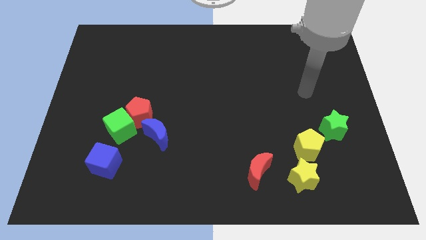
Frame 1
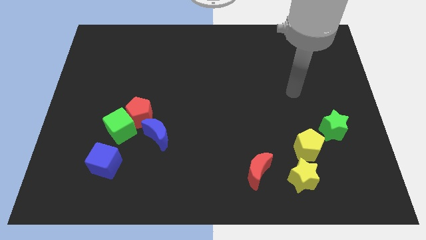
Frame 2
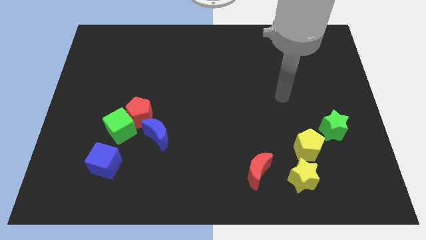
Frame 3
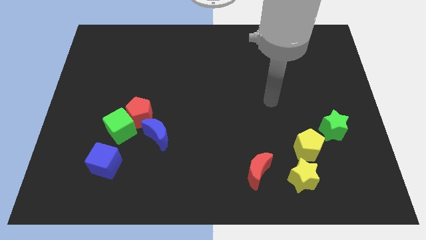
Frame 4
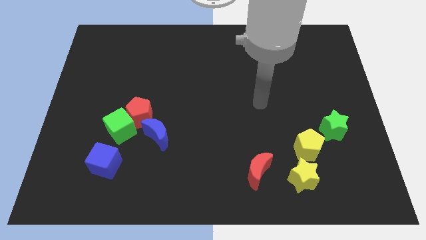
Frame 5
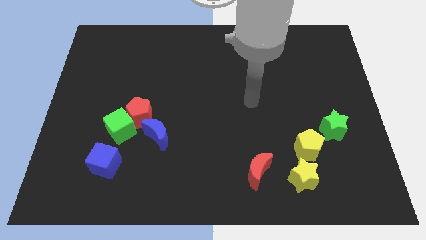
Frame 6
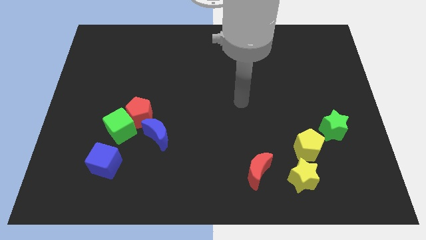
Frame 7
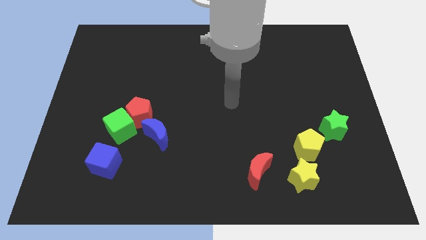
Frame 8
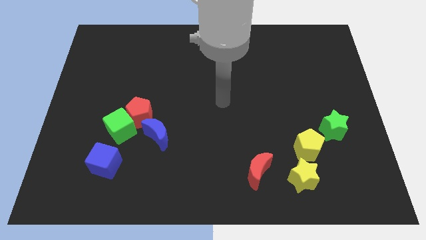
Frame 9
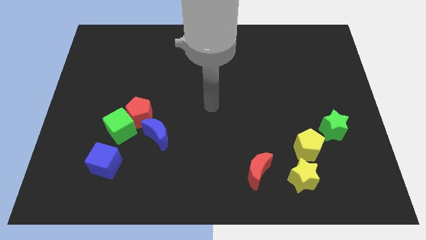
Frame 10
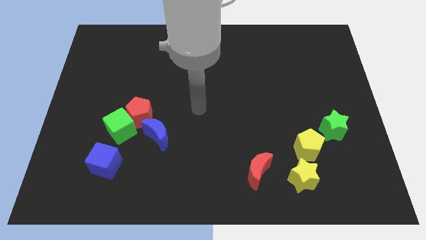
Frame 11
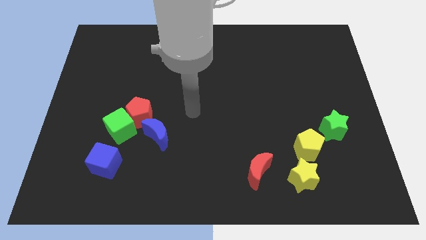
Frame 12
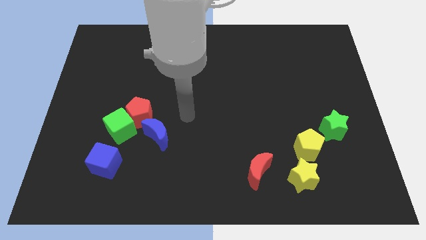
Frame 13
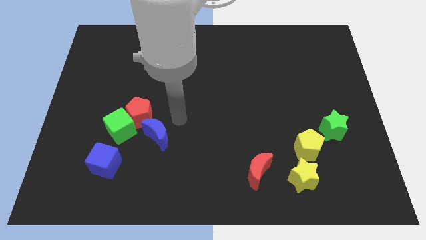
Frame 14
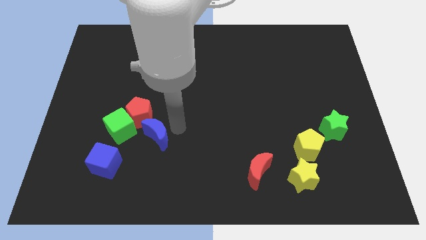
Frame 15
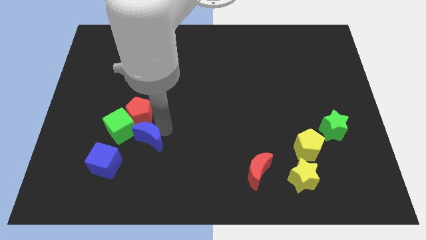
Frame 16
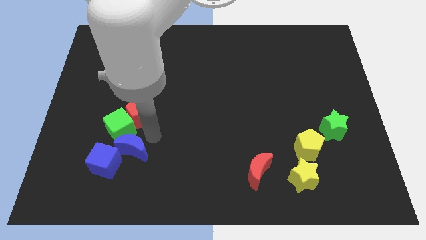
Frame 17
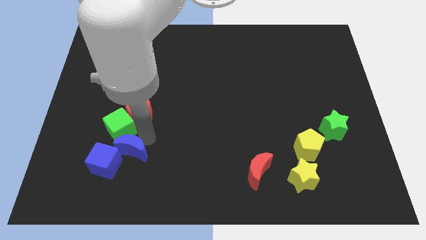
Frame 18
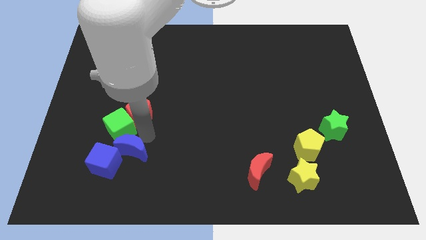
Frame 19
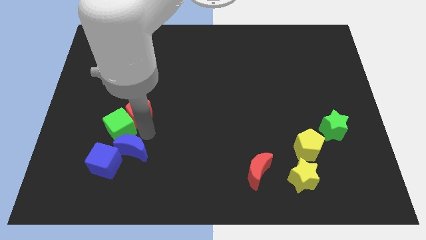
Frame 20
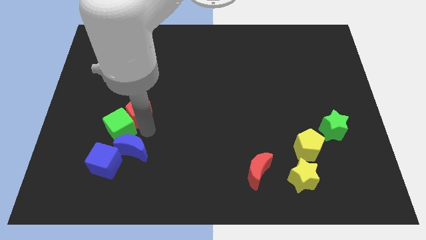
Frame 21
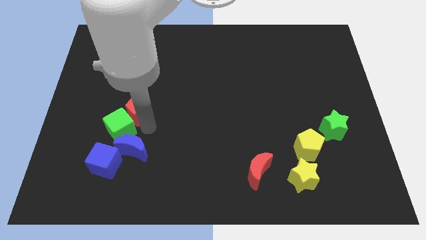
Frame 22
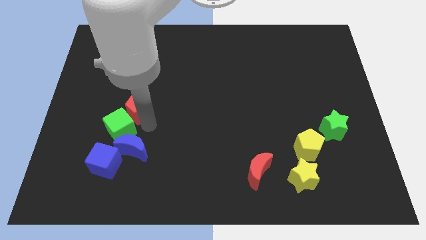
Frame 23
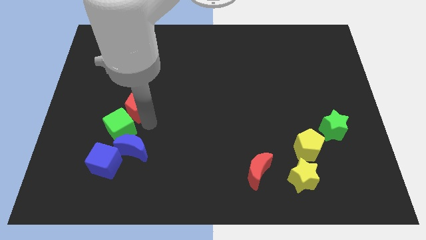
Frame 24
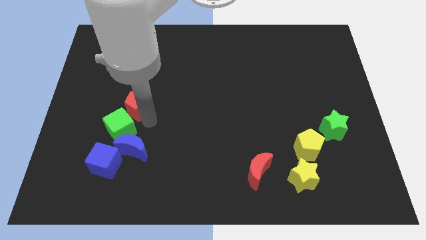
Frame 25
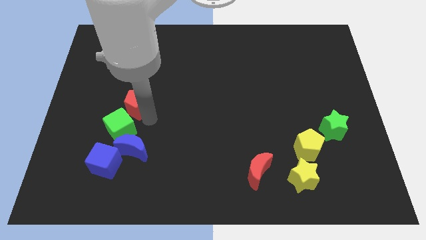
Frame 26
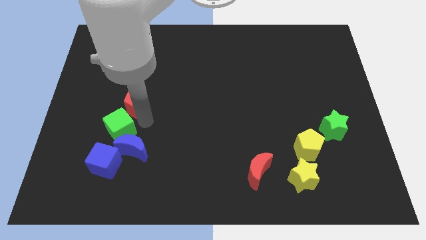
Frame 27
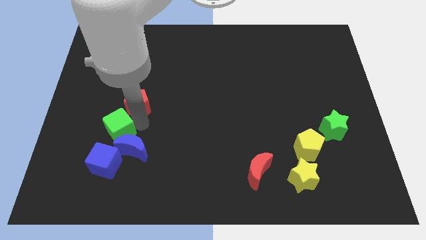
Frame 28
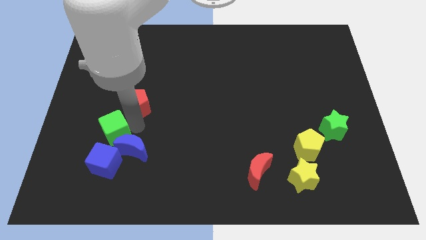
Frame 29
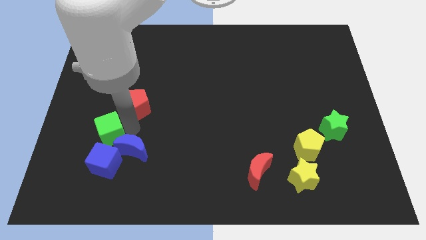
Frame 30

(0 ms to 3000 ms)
separate the red pentagon from the green cube and blue moon

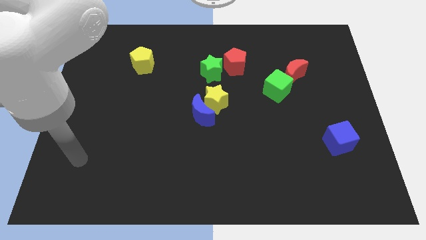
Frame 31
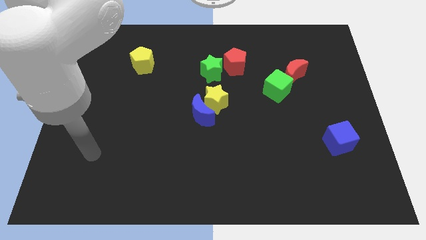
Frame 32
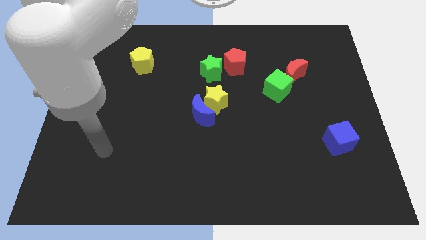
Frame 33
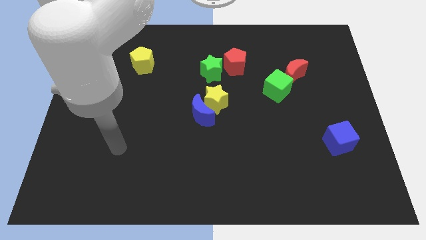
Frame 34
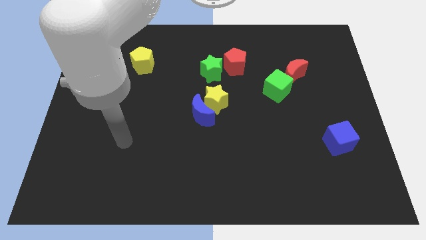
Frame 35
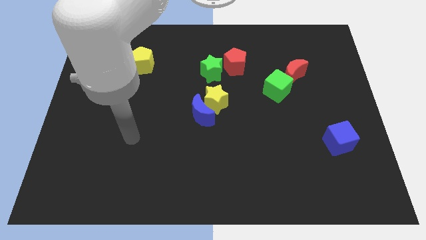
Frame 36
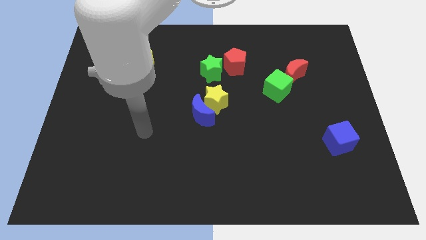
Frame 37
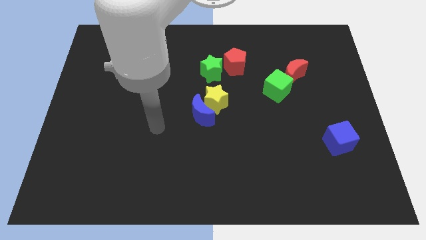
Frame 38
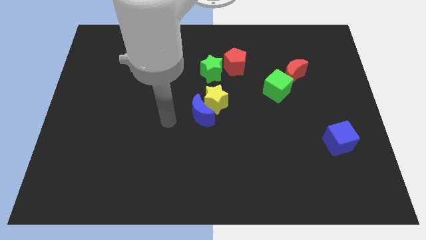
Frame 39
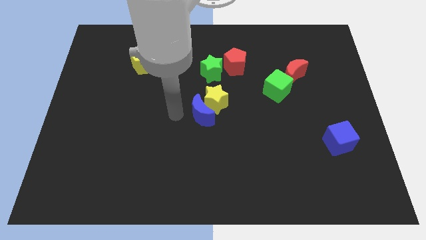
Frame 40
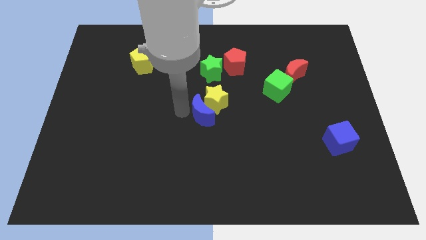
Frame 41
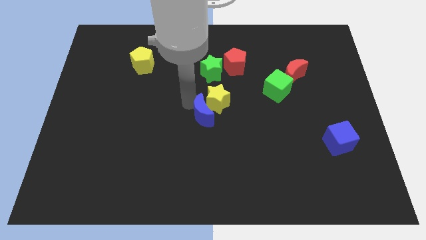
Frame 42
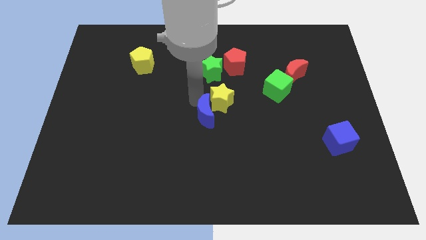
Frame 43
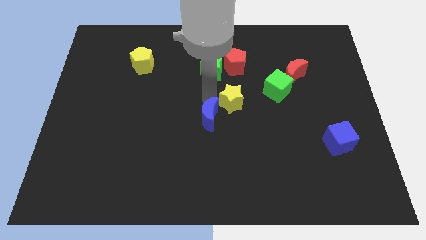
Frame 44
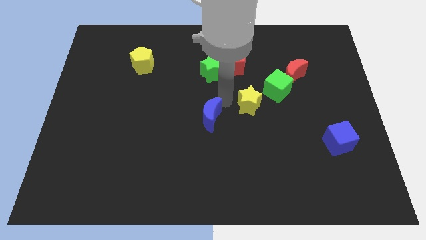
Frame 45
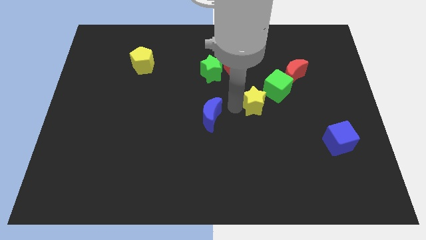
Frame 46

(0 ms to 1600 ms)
move the blue moon away from the yellow star

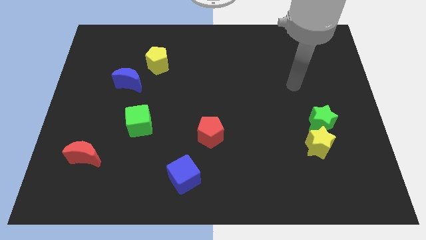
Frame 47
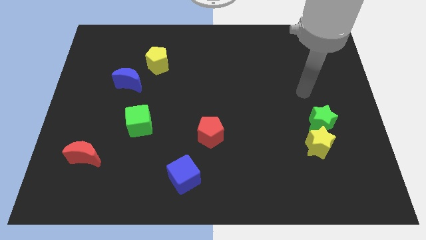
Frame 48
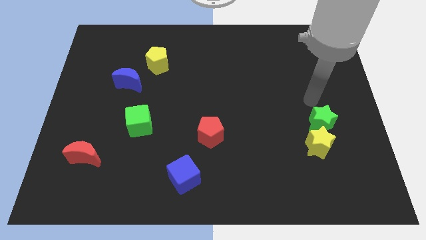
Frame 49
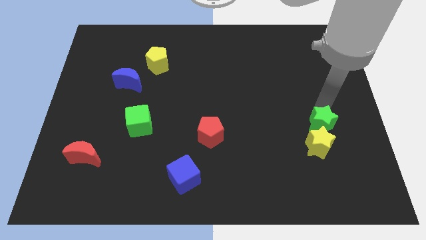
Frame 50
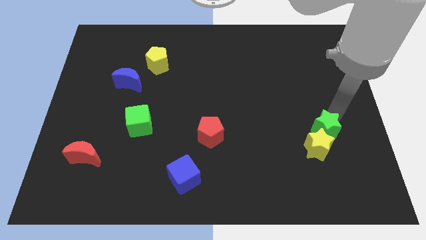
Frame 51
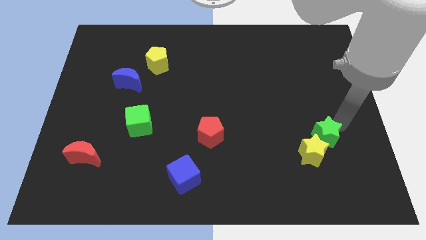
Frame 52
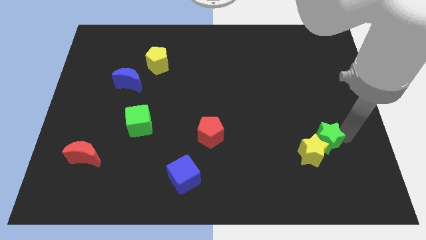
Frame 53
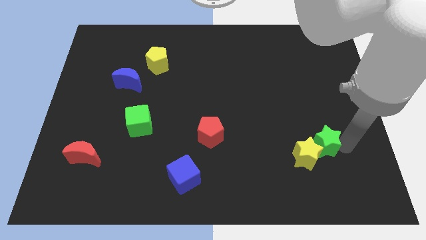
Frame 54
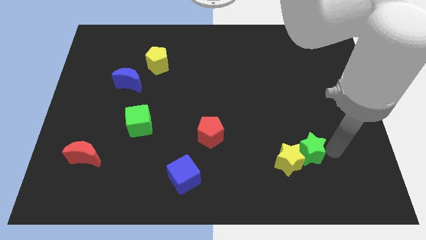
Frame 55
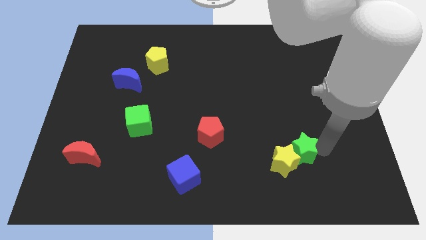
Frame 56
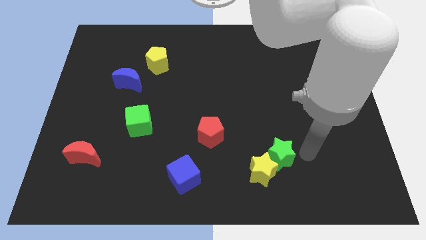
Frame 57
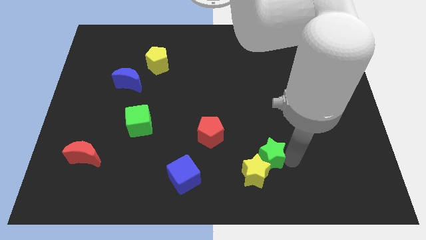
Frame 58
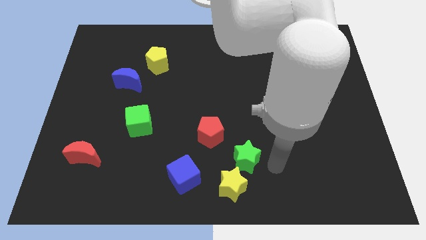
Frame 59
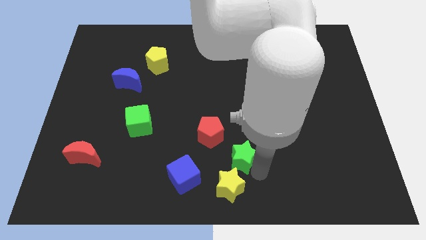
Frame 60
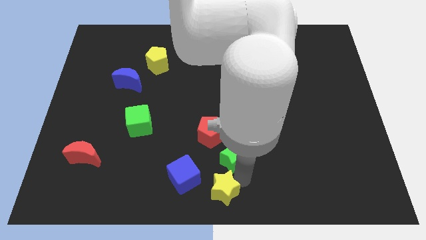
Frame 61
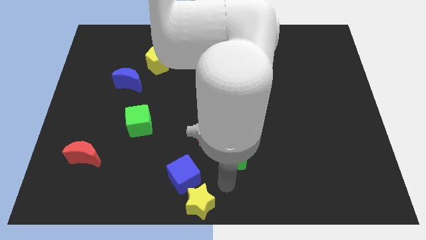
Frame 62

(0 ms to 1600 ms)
pull the green star apart from the yellow star

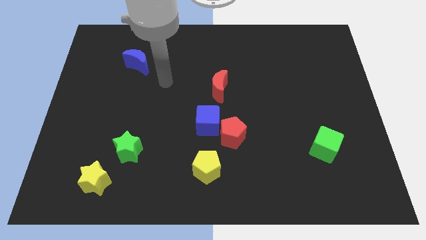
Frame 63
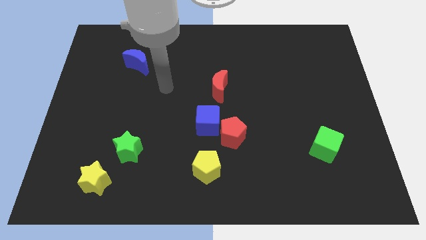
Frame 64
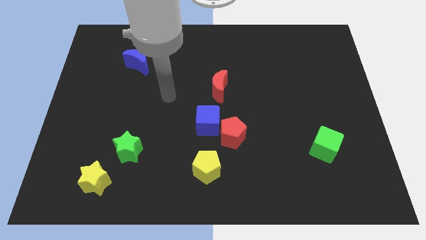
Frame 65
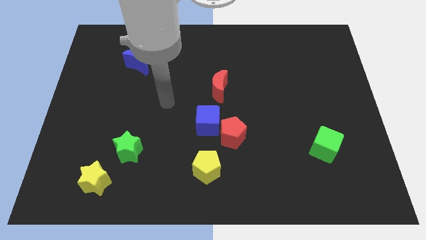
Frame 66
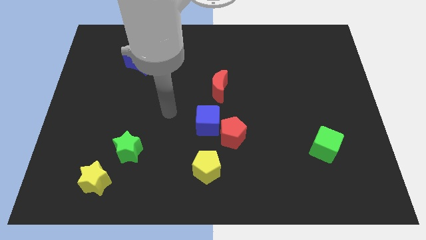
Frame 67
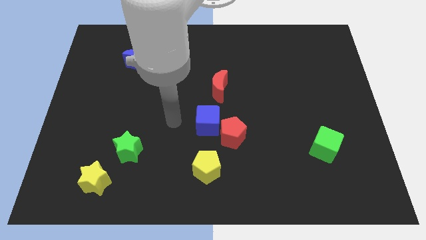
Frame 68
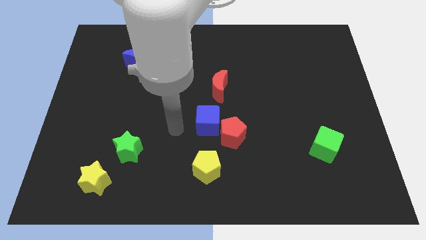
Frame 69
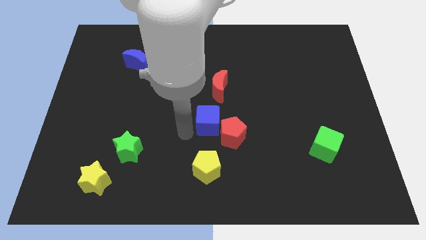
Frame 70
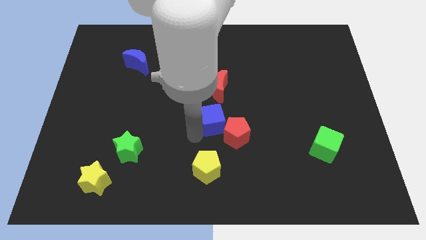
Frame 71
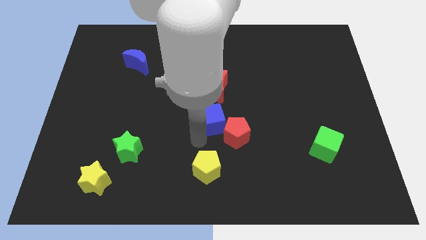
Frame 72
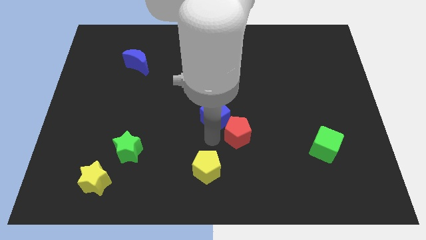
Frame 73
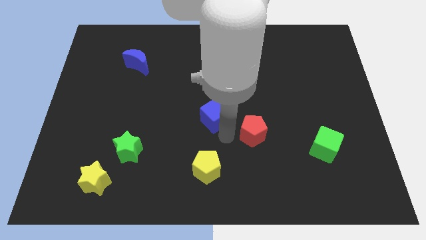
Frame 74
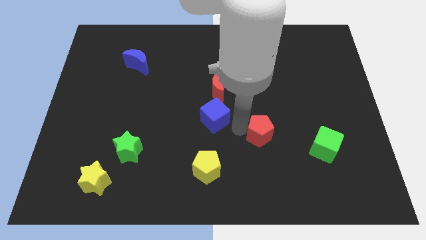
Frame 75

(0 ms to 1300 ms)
separate the blue cube from the red pentagon

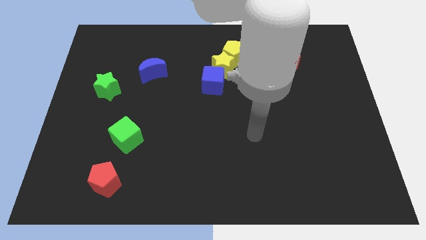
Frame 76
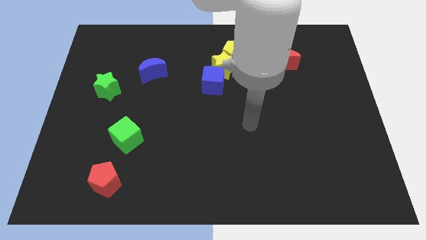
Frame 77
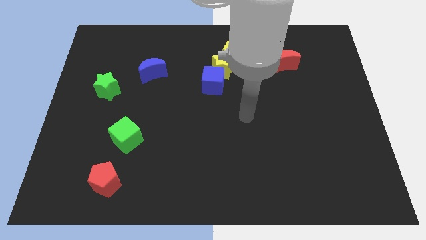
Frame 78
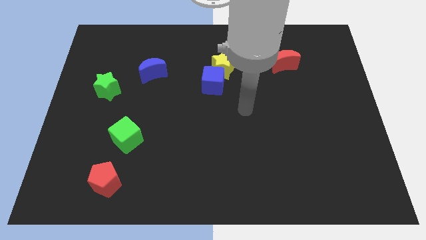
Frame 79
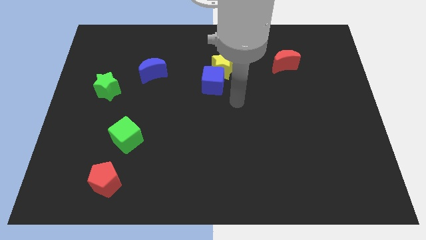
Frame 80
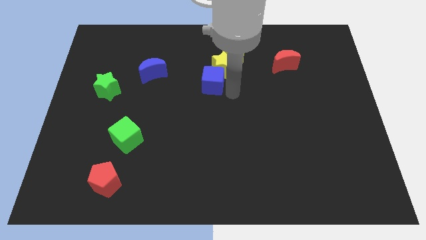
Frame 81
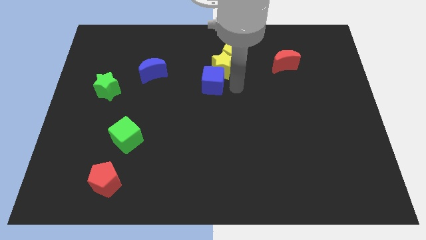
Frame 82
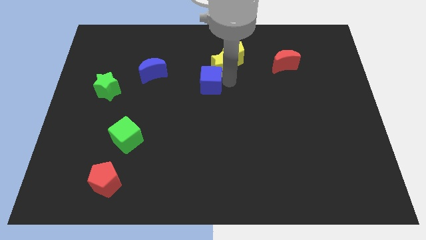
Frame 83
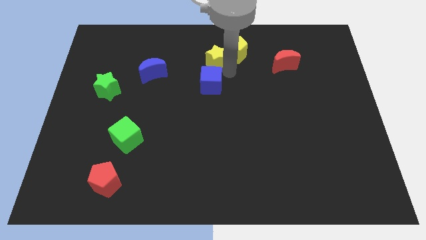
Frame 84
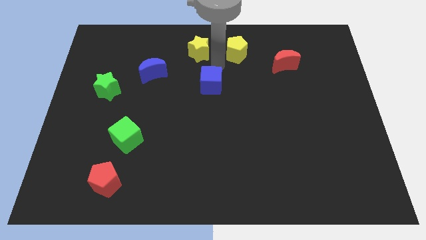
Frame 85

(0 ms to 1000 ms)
move the blue cube away from the yellow star

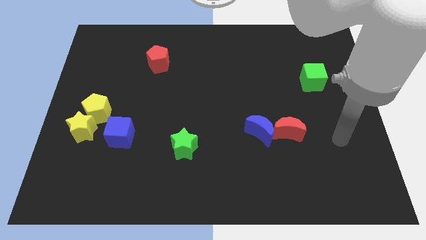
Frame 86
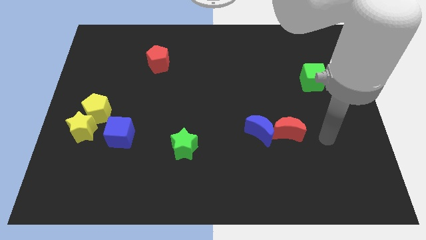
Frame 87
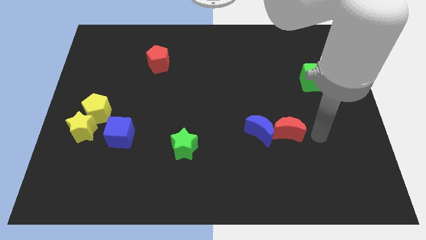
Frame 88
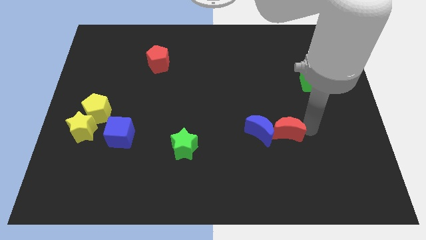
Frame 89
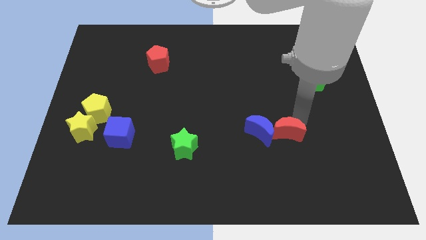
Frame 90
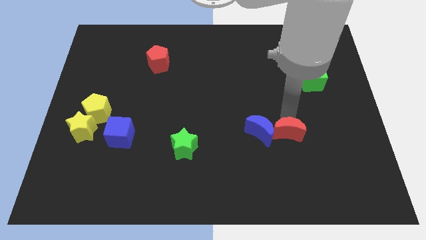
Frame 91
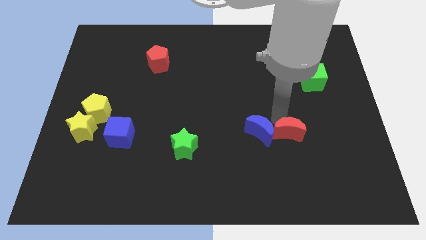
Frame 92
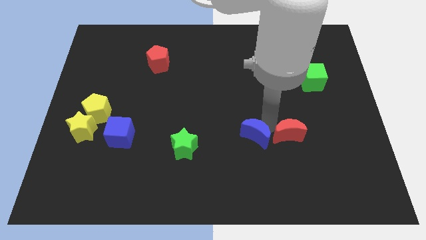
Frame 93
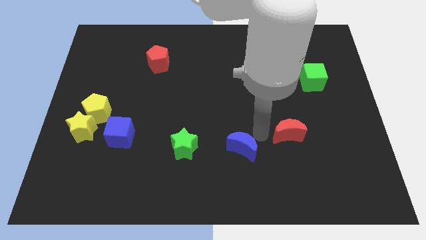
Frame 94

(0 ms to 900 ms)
pull the red moon apart from the blue moon
